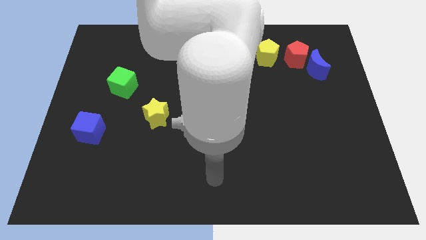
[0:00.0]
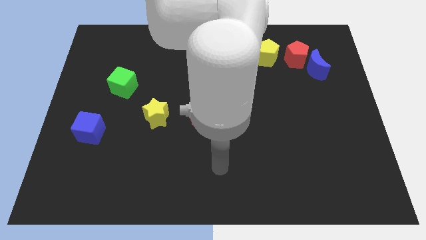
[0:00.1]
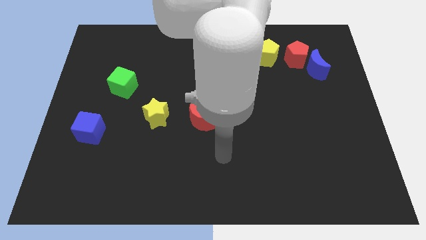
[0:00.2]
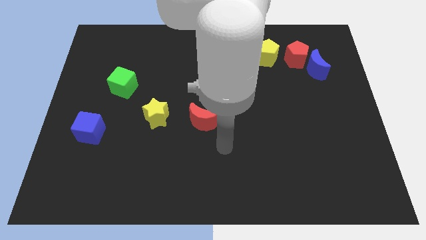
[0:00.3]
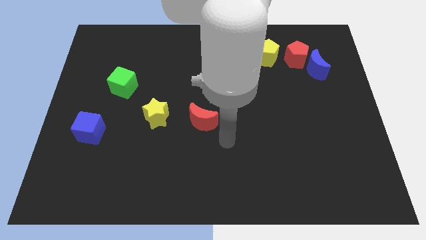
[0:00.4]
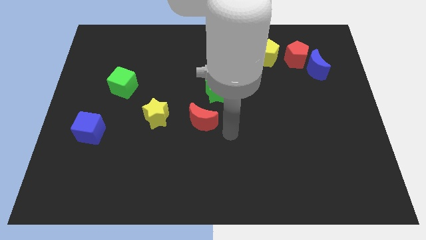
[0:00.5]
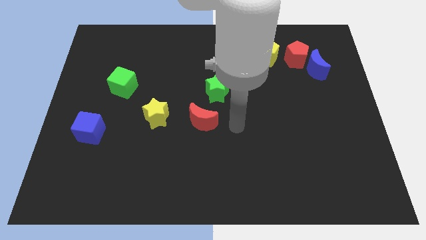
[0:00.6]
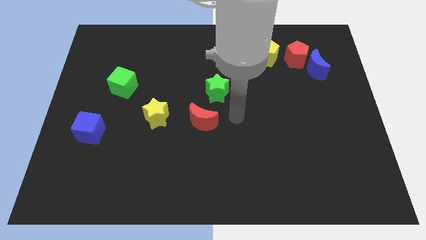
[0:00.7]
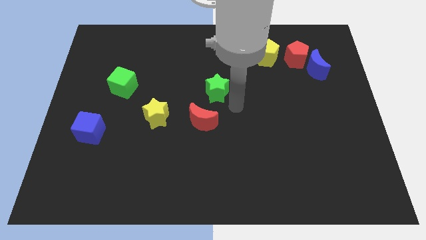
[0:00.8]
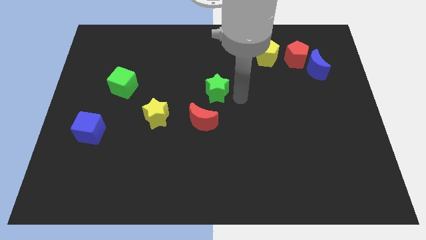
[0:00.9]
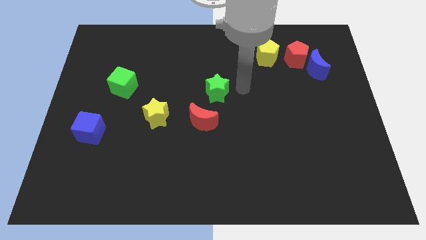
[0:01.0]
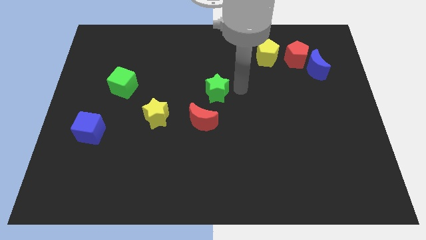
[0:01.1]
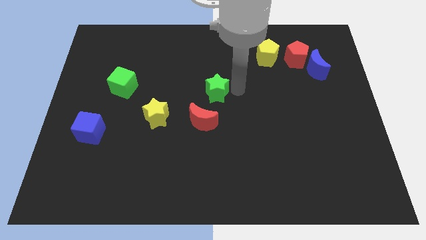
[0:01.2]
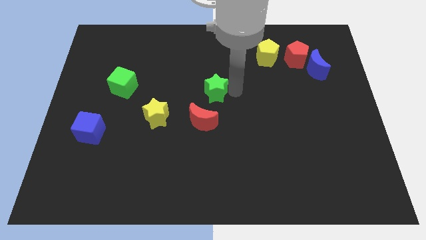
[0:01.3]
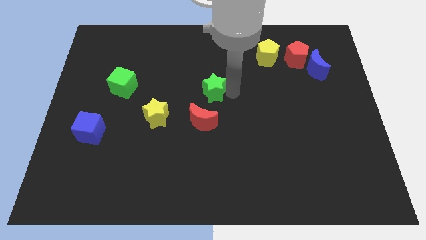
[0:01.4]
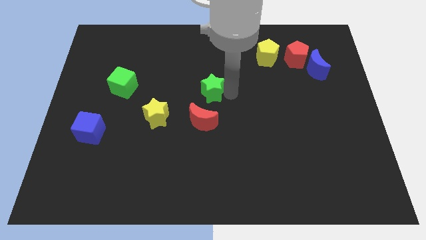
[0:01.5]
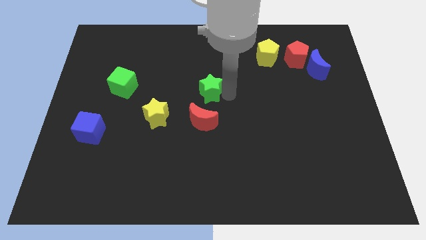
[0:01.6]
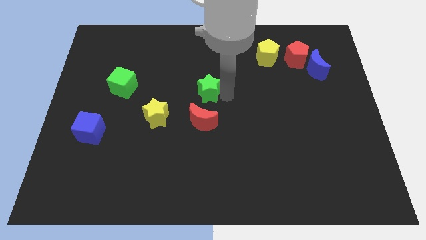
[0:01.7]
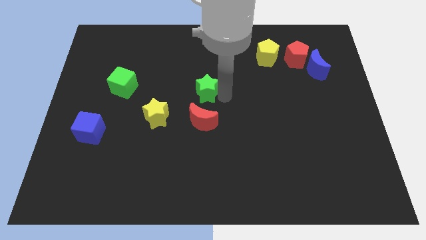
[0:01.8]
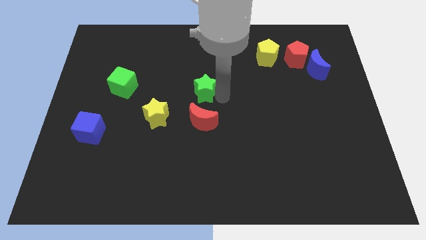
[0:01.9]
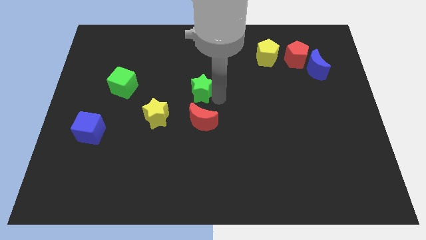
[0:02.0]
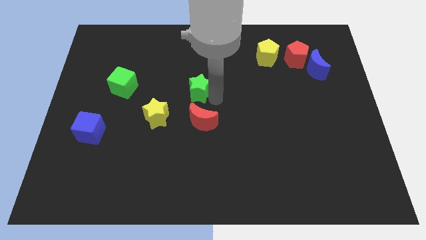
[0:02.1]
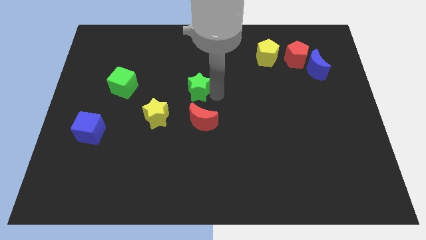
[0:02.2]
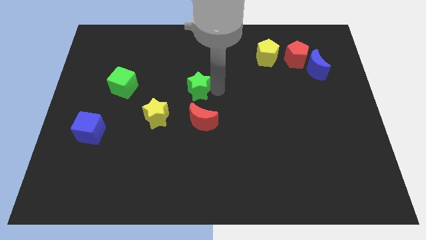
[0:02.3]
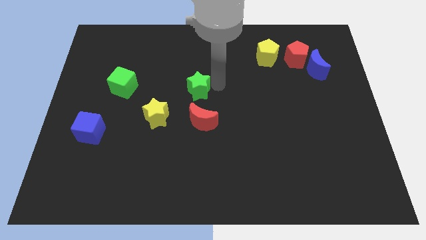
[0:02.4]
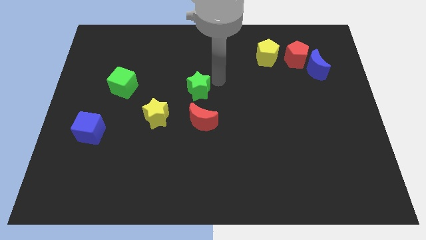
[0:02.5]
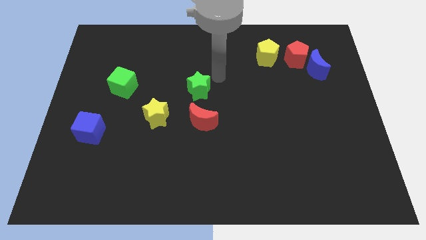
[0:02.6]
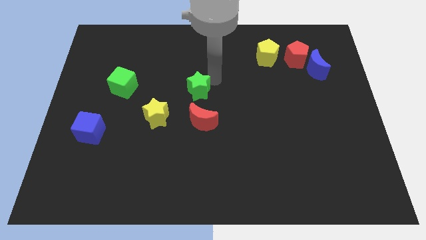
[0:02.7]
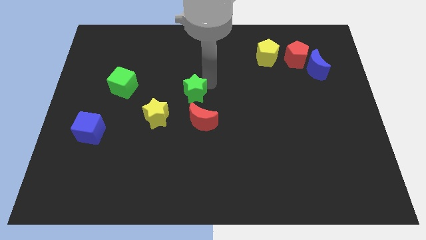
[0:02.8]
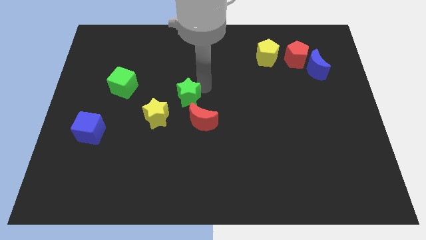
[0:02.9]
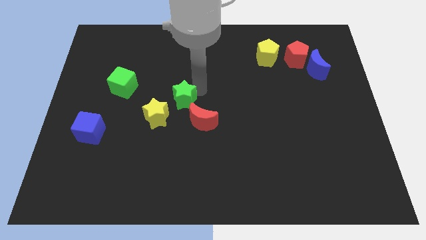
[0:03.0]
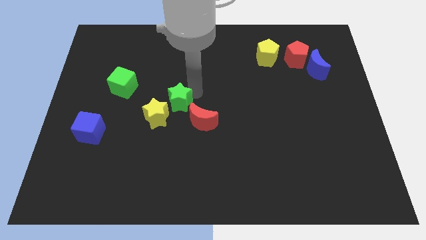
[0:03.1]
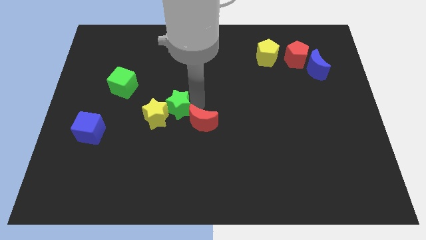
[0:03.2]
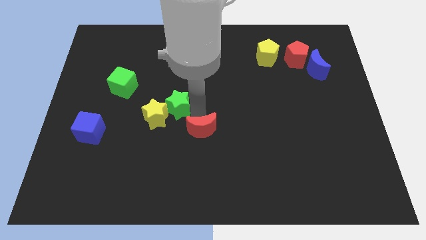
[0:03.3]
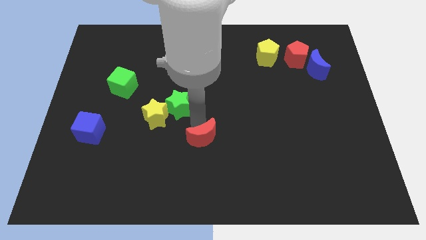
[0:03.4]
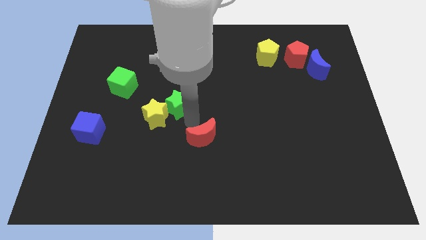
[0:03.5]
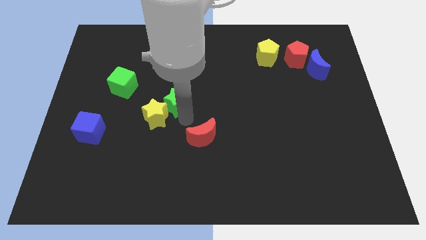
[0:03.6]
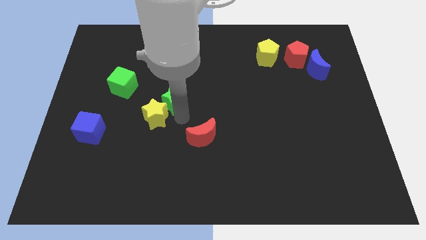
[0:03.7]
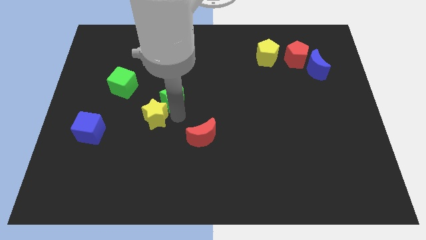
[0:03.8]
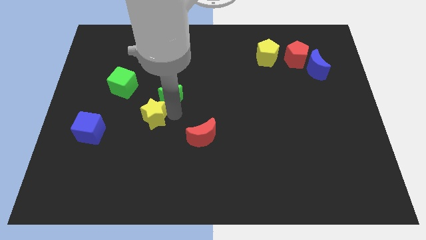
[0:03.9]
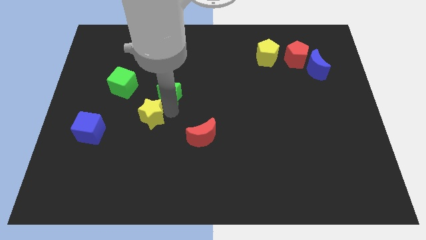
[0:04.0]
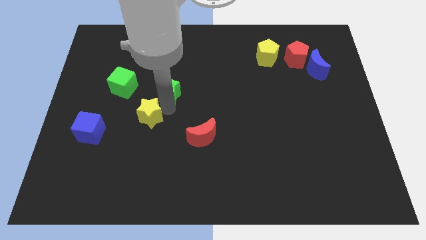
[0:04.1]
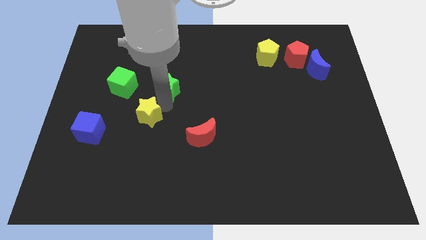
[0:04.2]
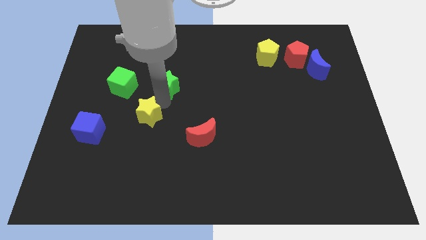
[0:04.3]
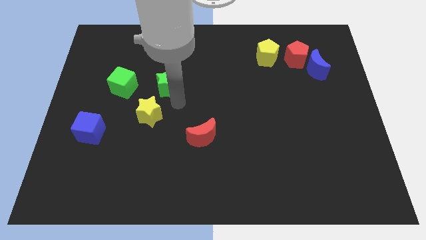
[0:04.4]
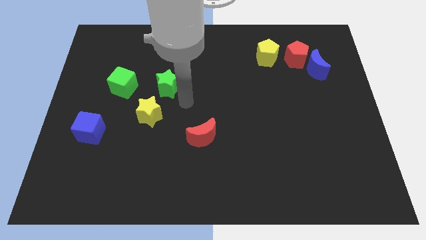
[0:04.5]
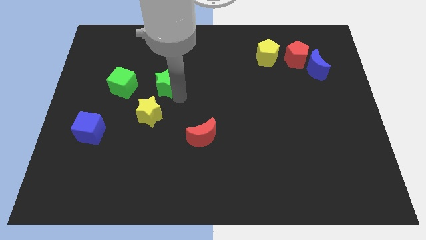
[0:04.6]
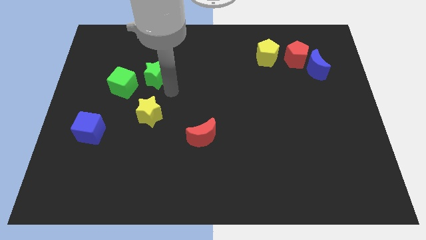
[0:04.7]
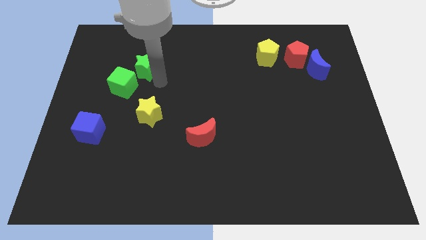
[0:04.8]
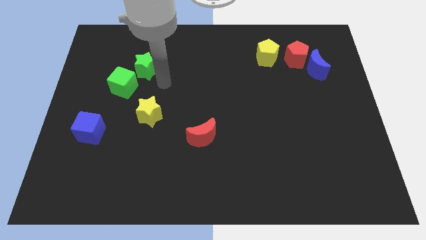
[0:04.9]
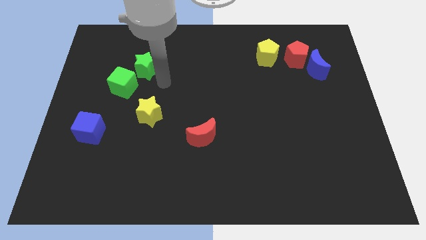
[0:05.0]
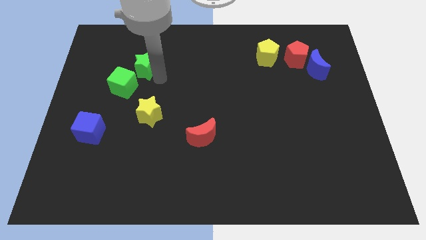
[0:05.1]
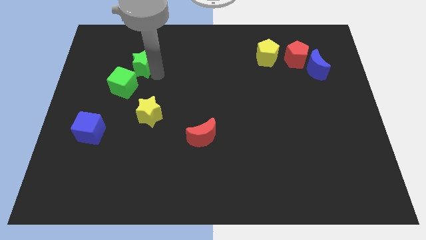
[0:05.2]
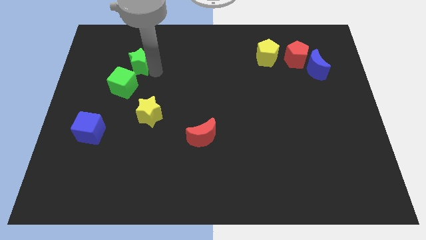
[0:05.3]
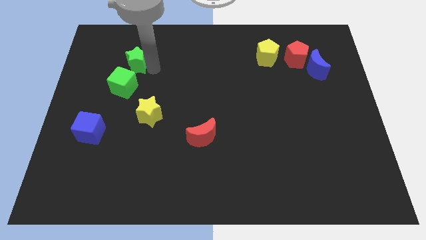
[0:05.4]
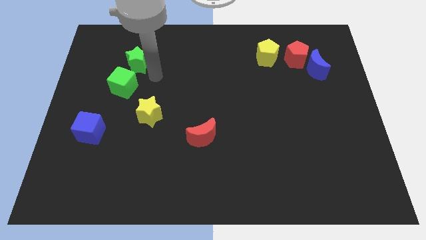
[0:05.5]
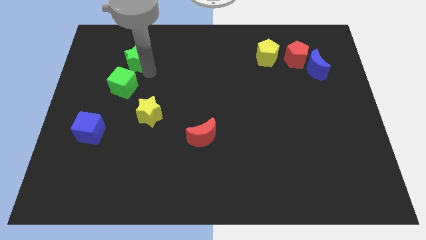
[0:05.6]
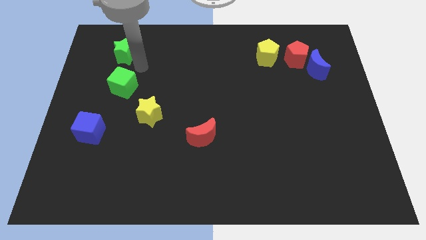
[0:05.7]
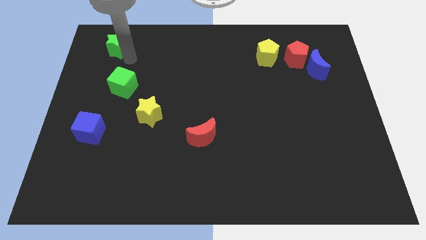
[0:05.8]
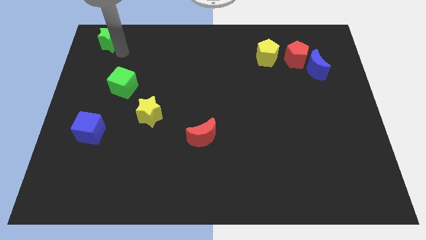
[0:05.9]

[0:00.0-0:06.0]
slide the green star to the top left corner
